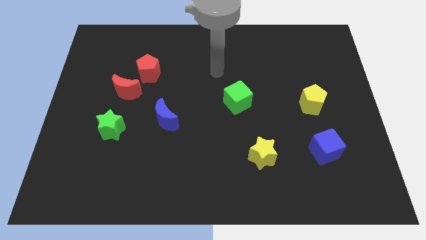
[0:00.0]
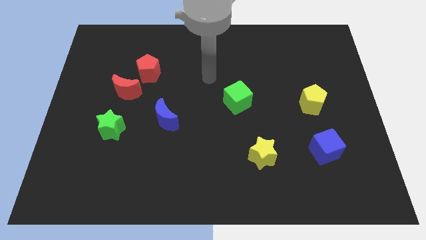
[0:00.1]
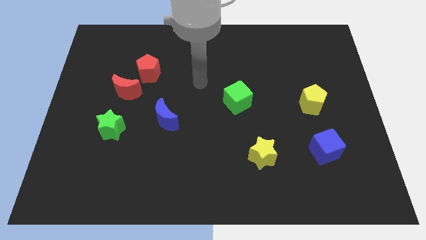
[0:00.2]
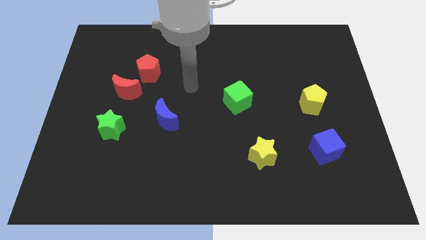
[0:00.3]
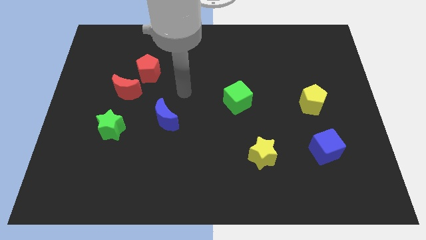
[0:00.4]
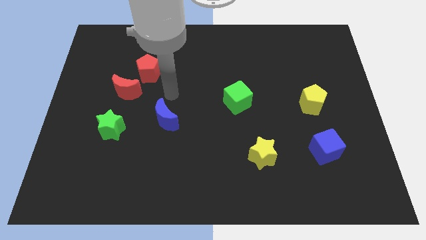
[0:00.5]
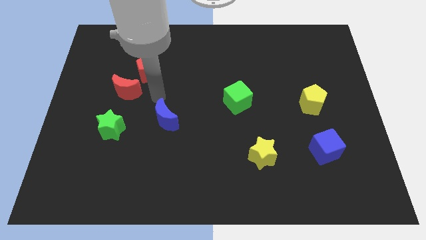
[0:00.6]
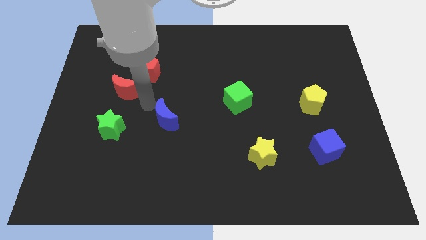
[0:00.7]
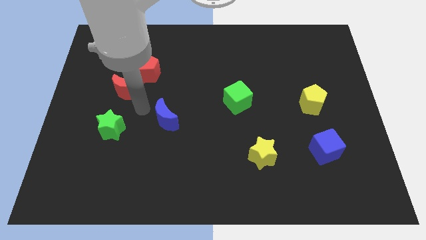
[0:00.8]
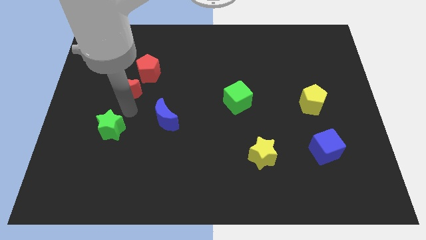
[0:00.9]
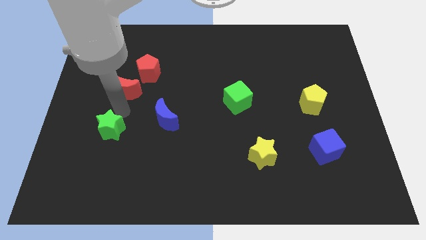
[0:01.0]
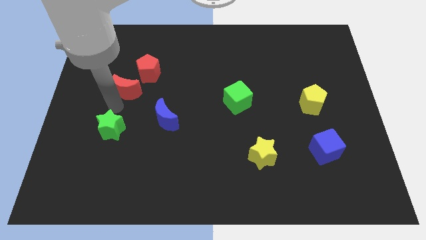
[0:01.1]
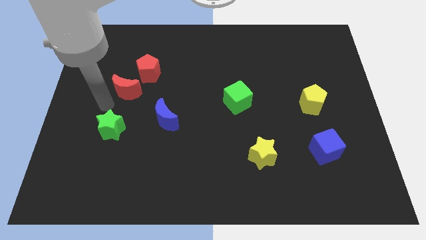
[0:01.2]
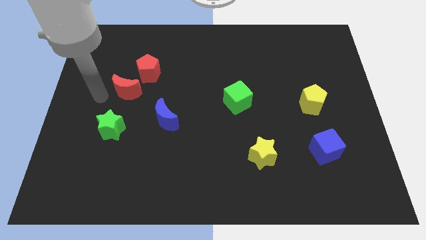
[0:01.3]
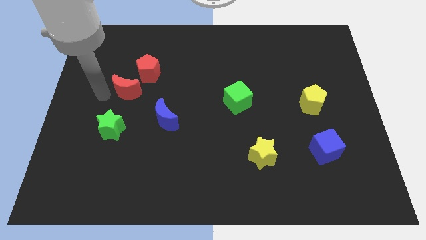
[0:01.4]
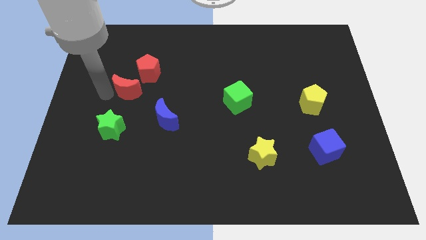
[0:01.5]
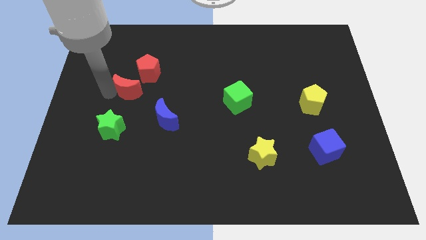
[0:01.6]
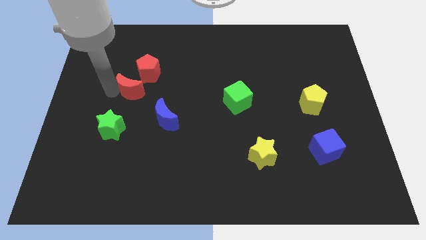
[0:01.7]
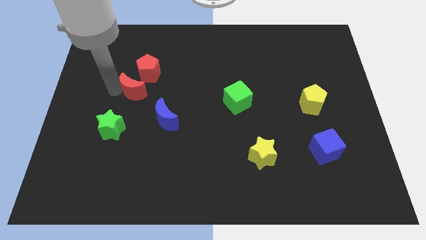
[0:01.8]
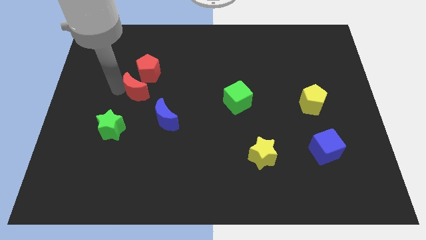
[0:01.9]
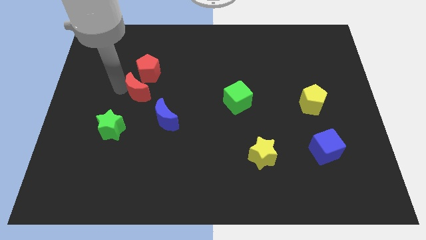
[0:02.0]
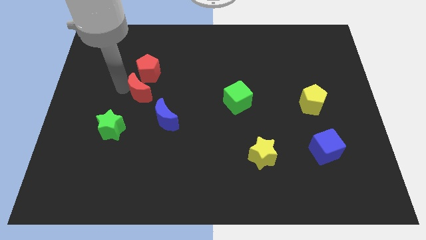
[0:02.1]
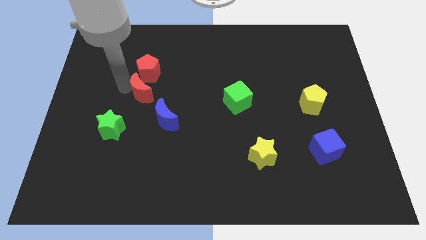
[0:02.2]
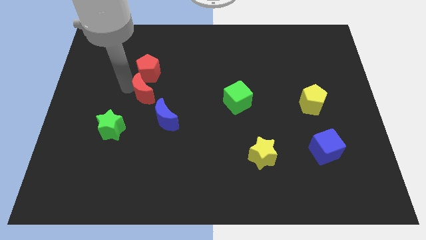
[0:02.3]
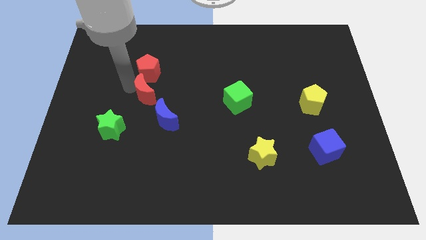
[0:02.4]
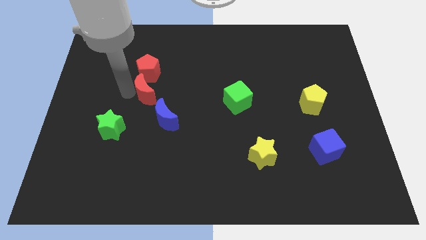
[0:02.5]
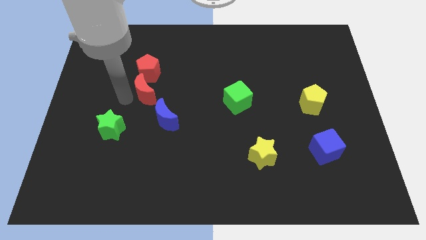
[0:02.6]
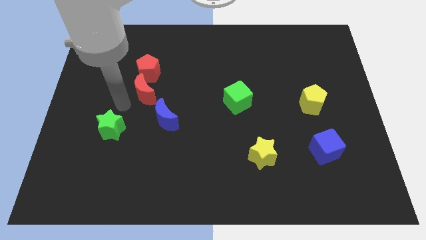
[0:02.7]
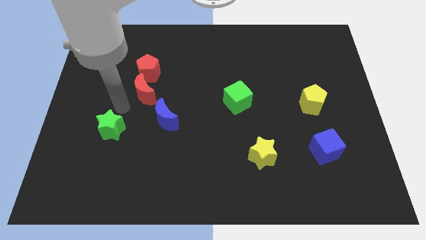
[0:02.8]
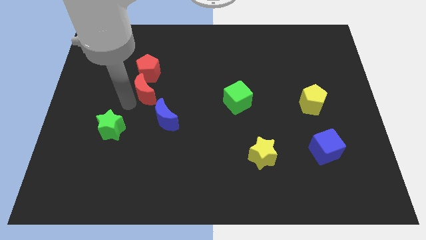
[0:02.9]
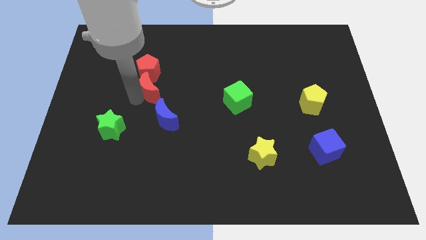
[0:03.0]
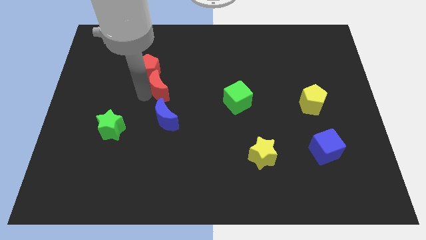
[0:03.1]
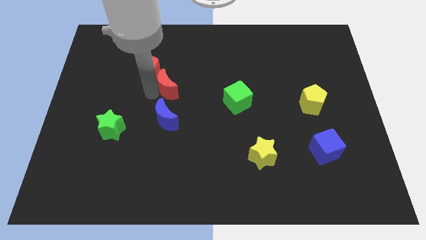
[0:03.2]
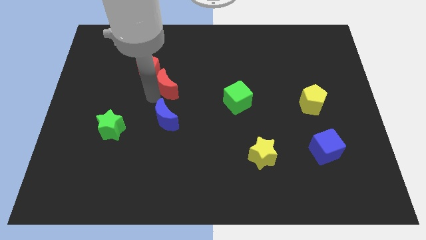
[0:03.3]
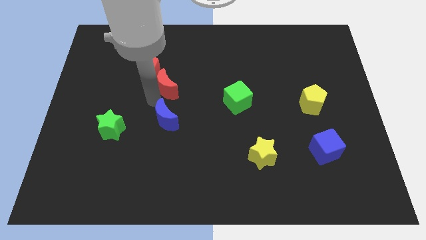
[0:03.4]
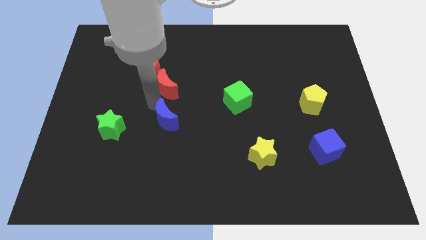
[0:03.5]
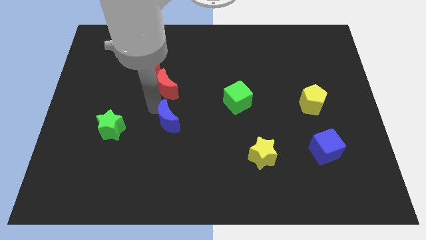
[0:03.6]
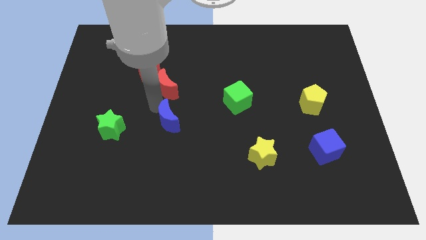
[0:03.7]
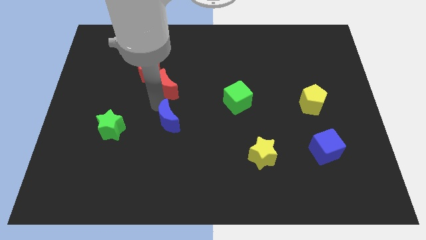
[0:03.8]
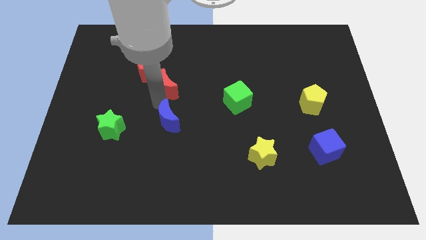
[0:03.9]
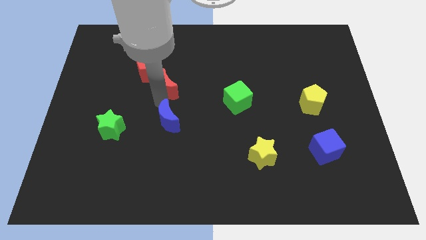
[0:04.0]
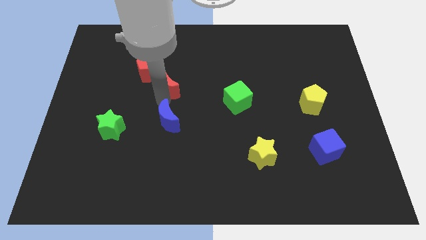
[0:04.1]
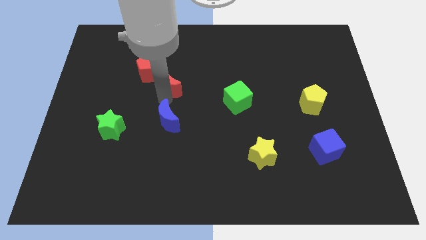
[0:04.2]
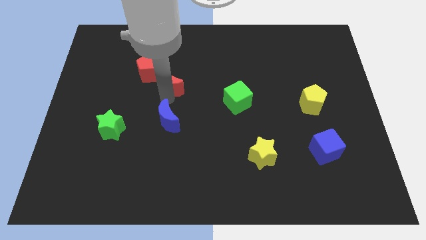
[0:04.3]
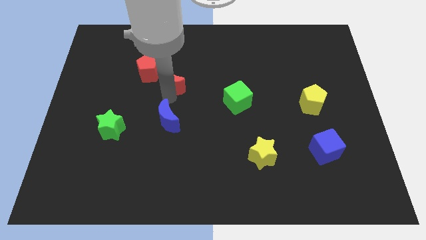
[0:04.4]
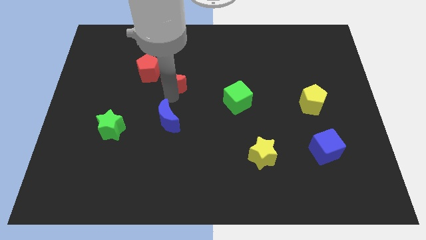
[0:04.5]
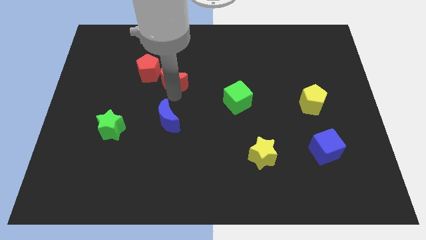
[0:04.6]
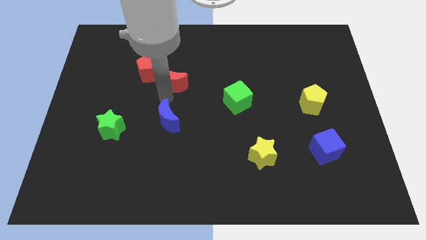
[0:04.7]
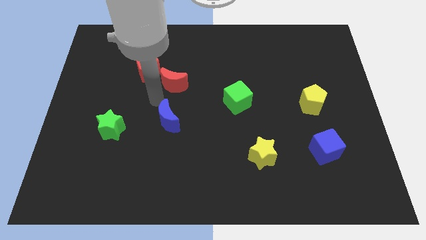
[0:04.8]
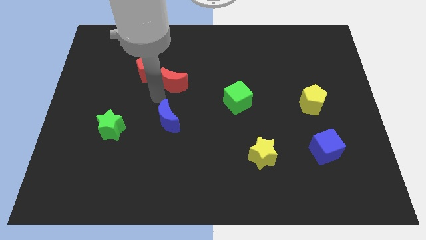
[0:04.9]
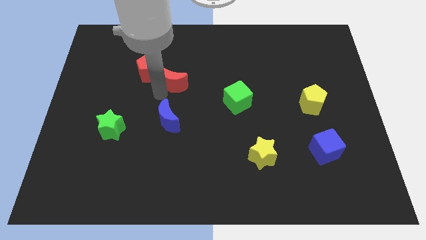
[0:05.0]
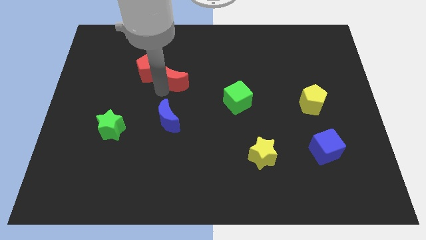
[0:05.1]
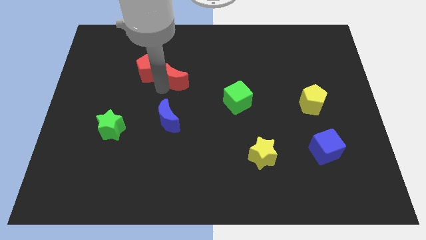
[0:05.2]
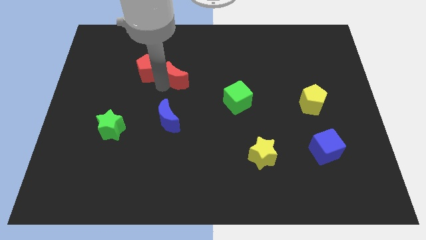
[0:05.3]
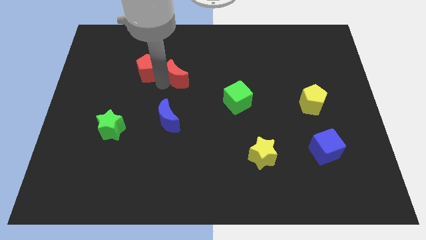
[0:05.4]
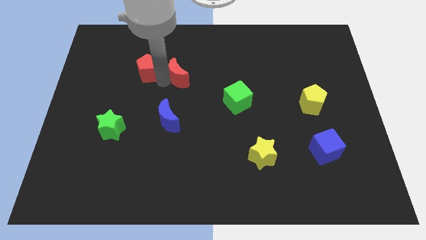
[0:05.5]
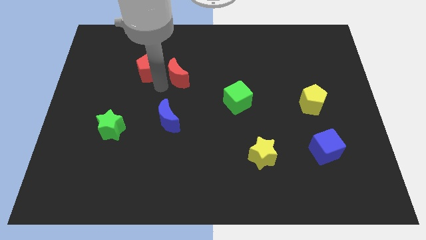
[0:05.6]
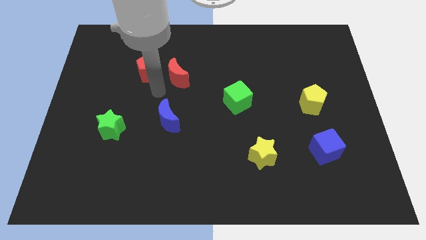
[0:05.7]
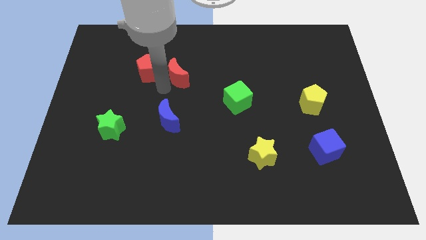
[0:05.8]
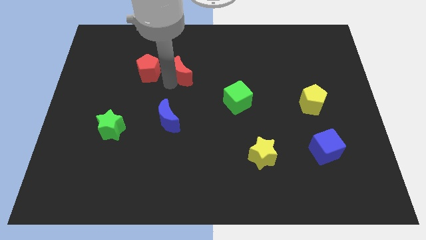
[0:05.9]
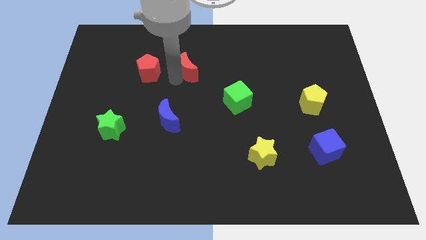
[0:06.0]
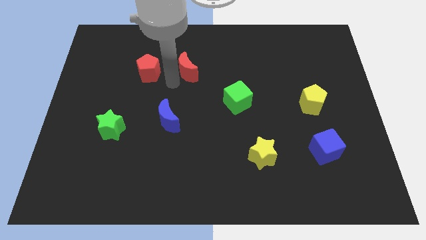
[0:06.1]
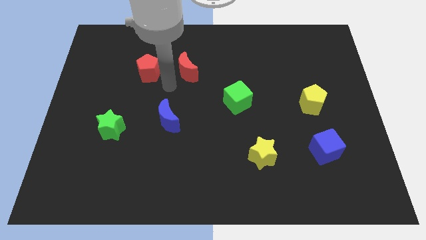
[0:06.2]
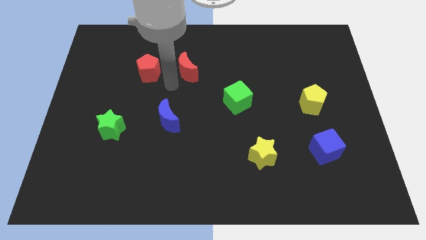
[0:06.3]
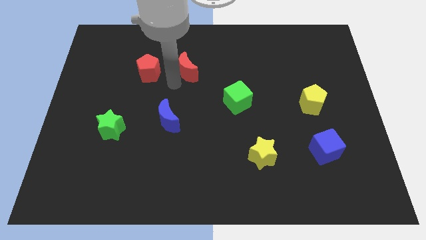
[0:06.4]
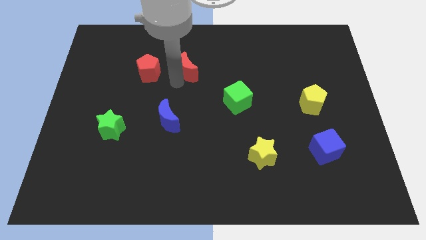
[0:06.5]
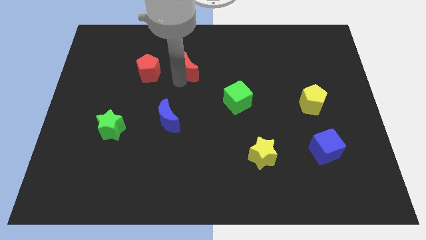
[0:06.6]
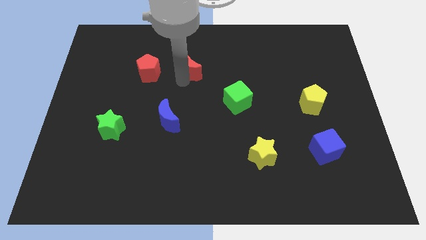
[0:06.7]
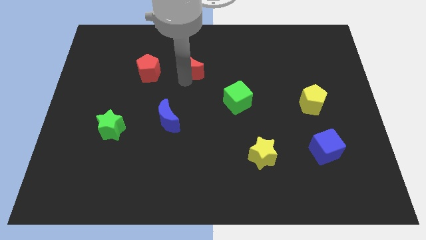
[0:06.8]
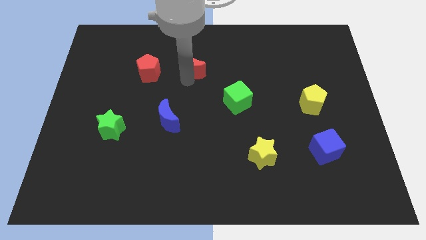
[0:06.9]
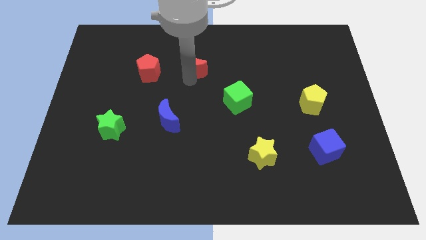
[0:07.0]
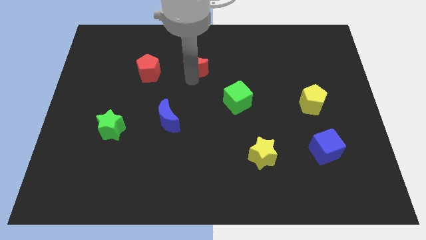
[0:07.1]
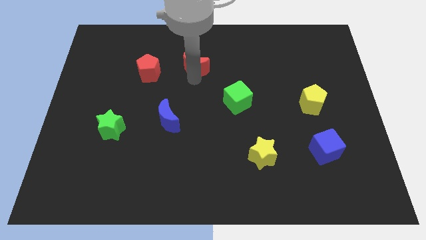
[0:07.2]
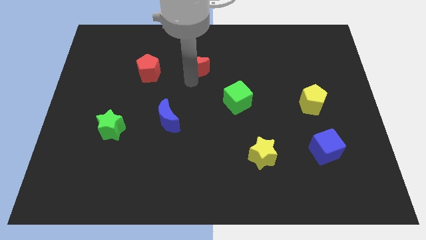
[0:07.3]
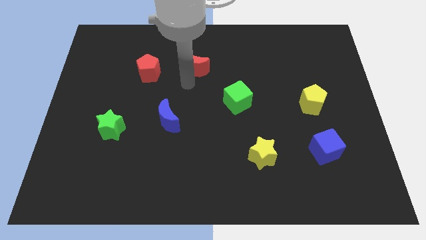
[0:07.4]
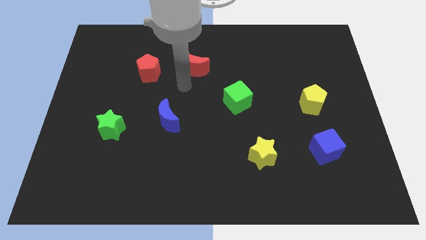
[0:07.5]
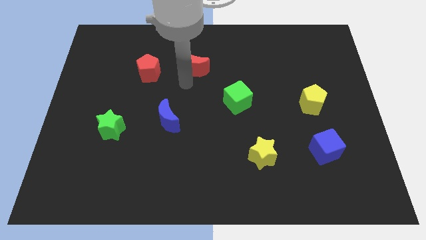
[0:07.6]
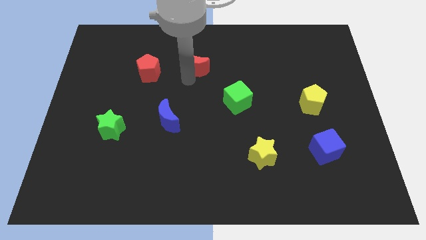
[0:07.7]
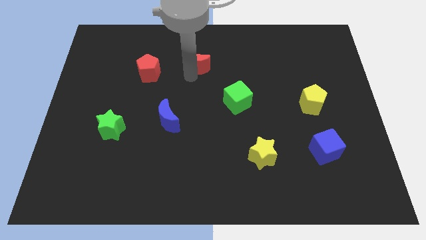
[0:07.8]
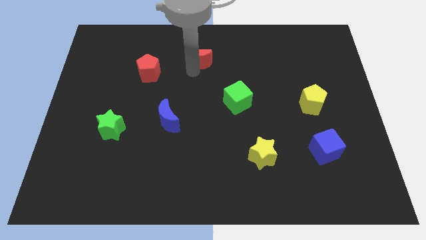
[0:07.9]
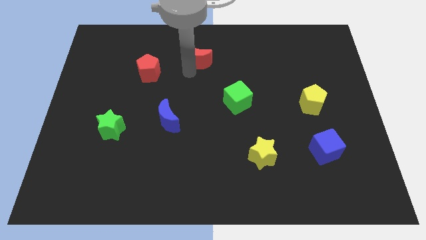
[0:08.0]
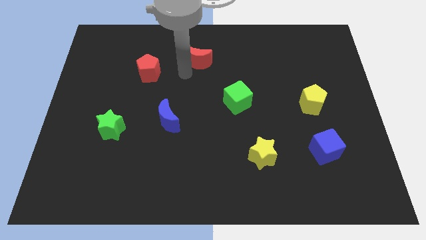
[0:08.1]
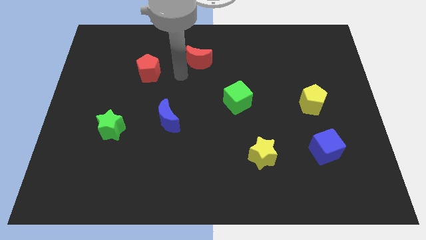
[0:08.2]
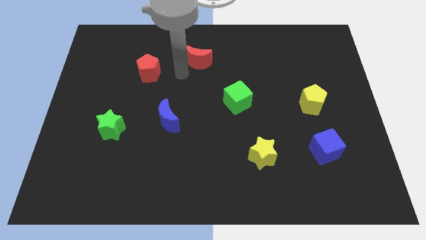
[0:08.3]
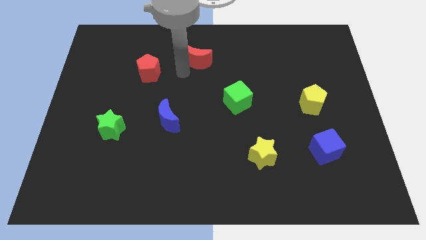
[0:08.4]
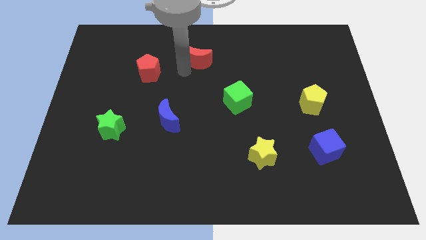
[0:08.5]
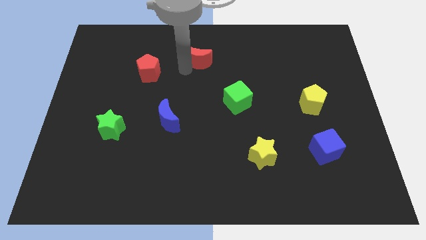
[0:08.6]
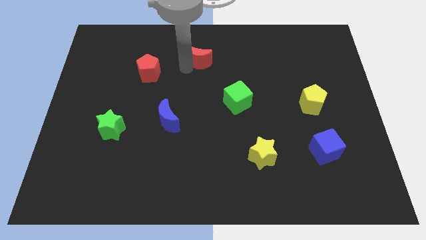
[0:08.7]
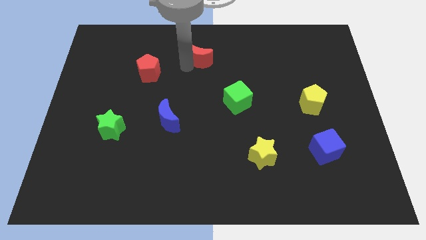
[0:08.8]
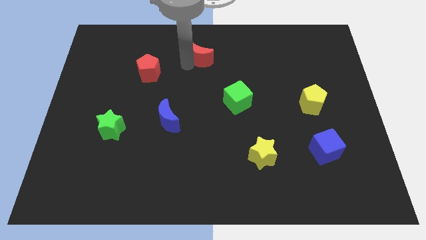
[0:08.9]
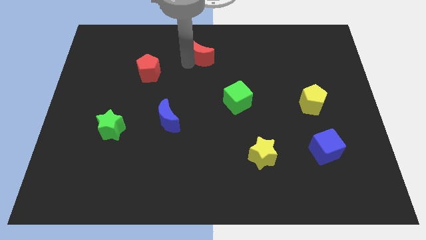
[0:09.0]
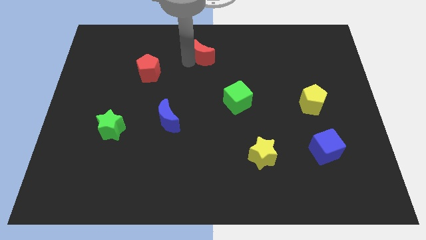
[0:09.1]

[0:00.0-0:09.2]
slide the red moon to the top
